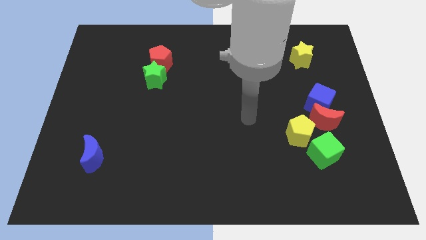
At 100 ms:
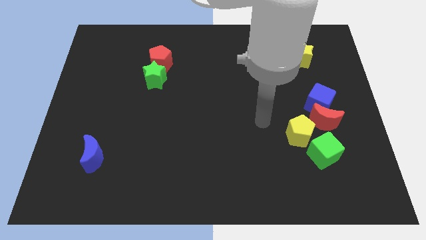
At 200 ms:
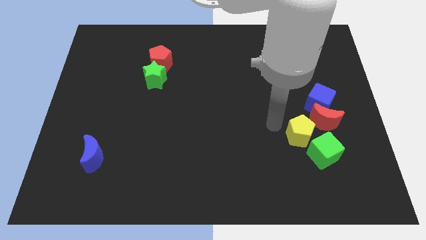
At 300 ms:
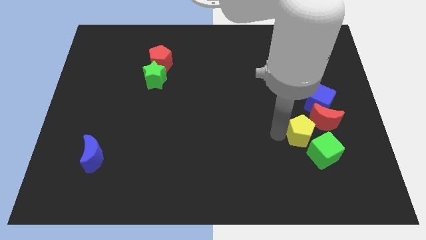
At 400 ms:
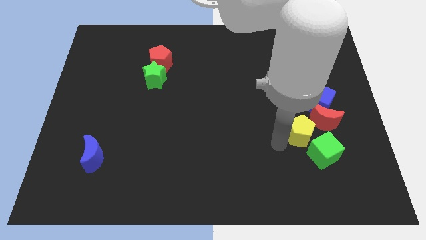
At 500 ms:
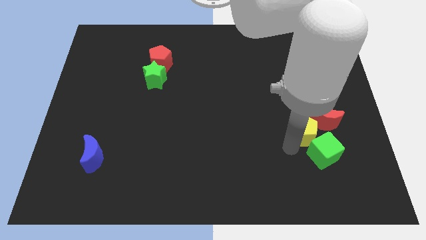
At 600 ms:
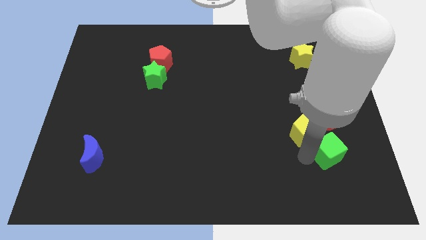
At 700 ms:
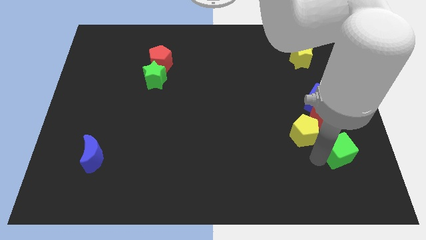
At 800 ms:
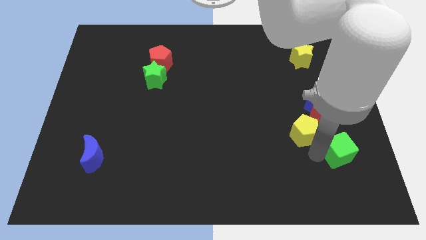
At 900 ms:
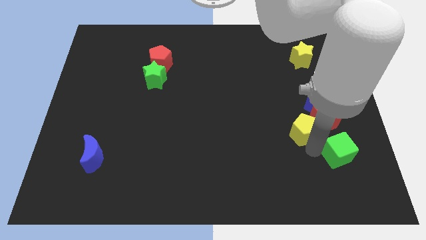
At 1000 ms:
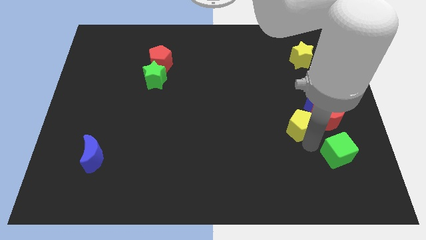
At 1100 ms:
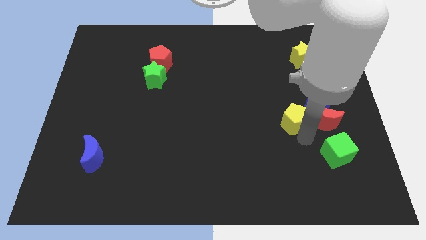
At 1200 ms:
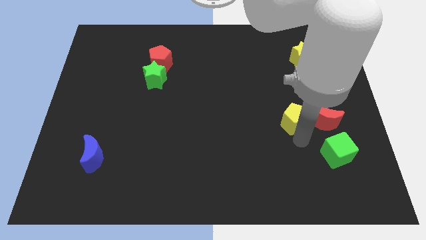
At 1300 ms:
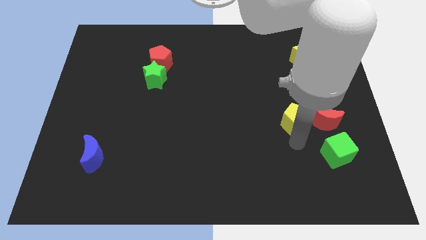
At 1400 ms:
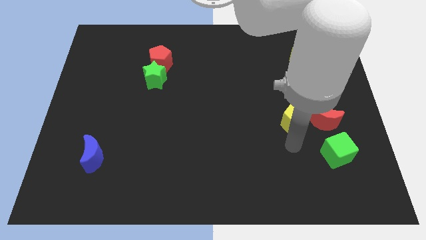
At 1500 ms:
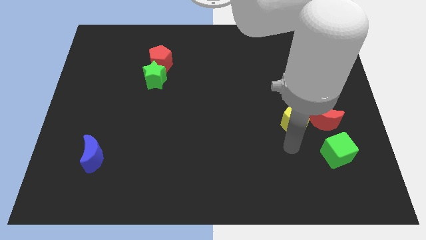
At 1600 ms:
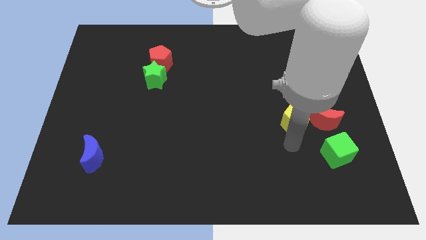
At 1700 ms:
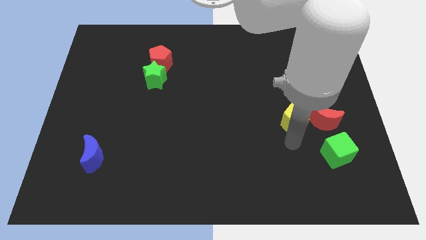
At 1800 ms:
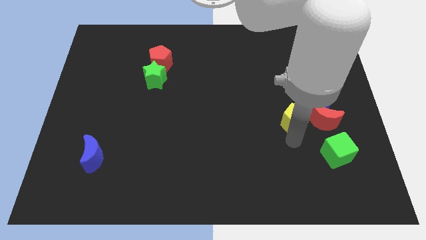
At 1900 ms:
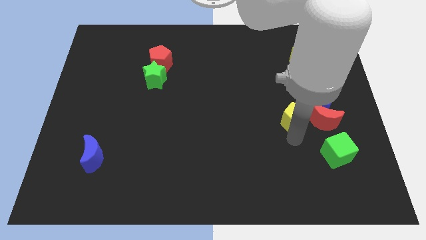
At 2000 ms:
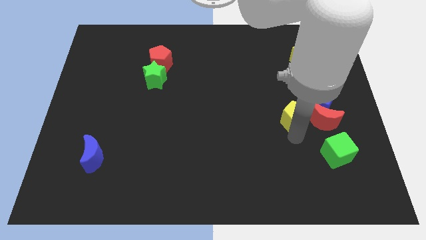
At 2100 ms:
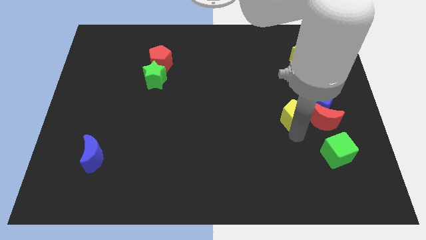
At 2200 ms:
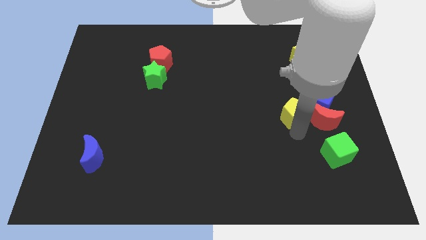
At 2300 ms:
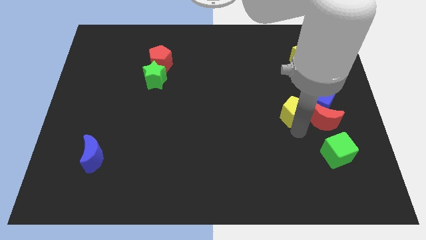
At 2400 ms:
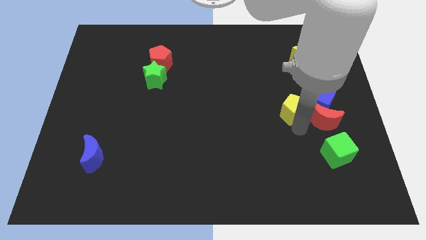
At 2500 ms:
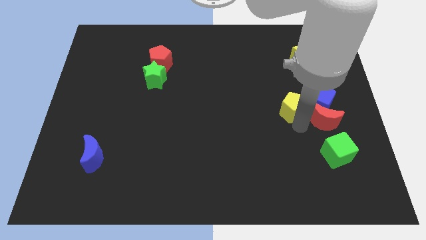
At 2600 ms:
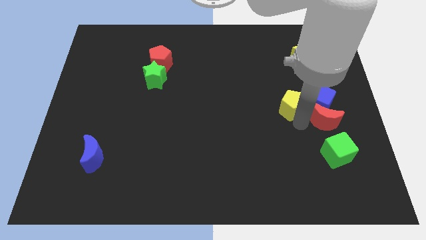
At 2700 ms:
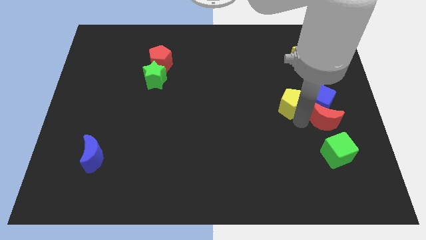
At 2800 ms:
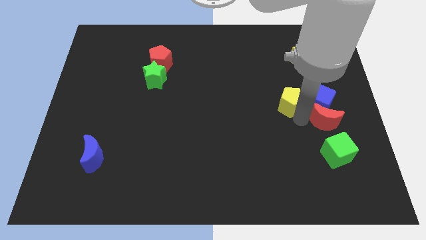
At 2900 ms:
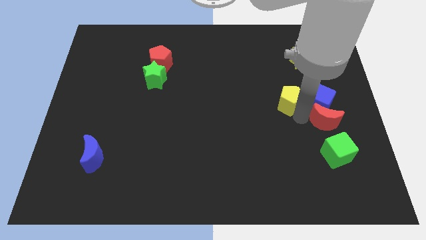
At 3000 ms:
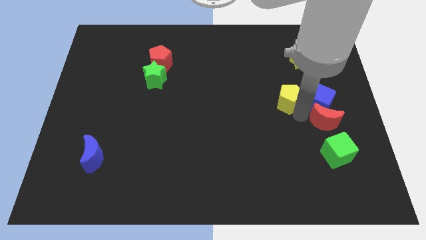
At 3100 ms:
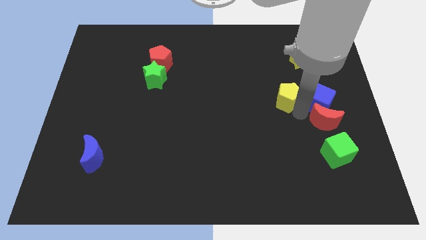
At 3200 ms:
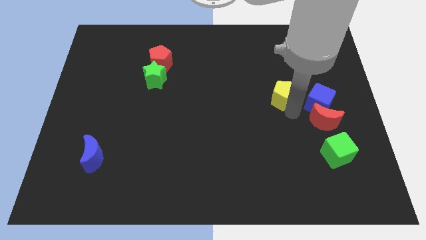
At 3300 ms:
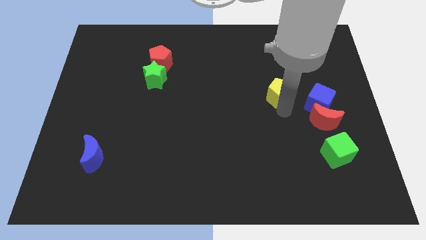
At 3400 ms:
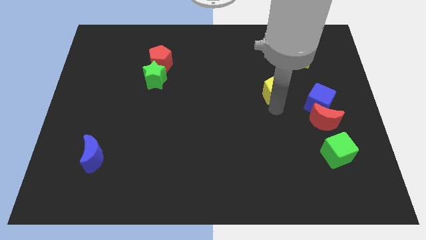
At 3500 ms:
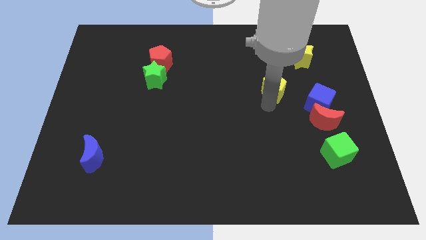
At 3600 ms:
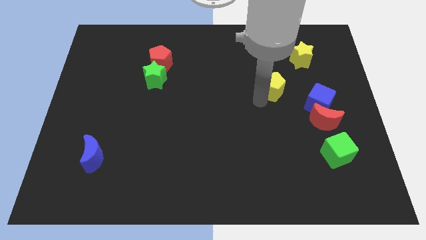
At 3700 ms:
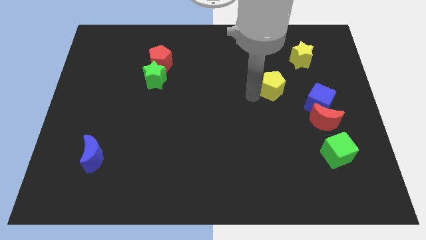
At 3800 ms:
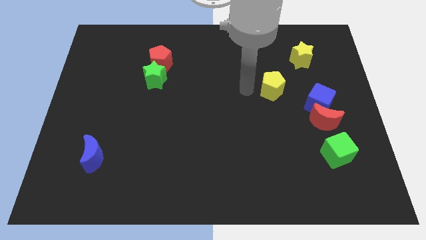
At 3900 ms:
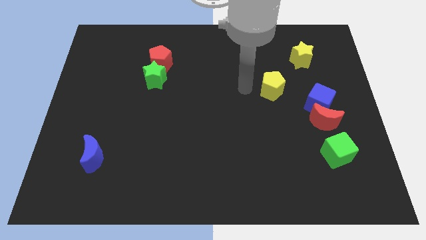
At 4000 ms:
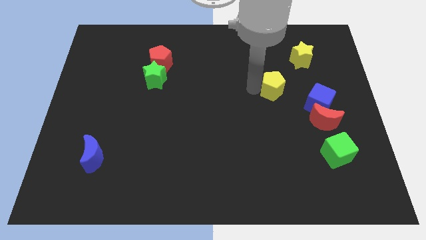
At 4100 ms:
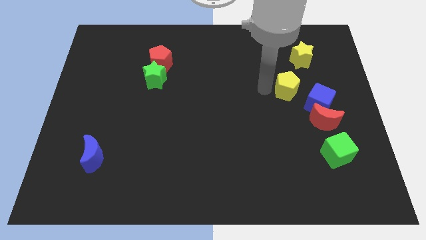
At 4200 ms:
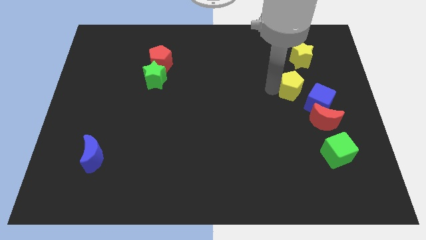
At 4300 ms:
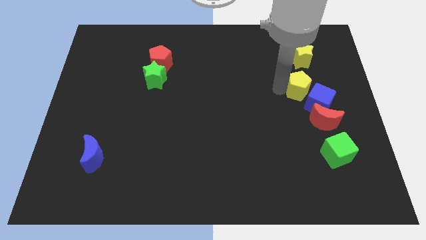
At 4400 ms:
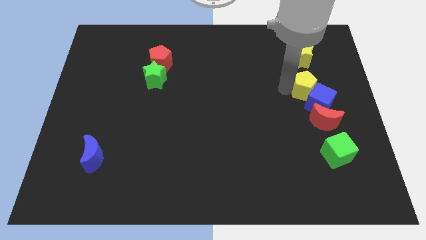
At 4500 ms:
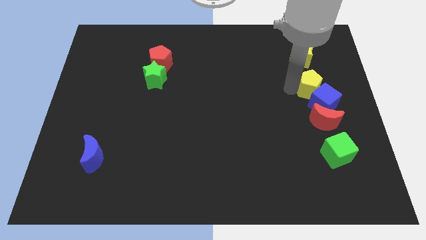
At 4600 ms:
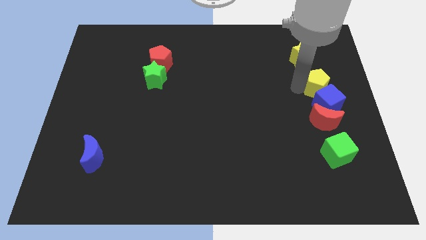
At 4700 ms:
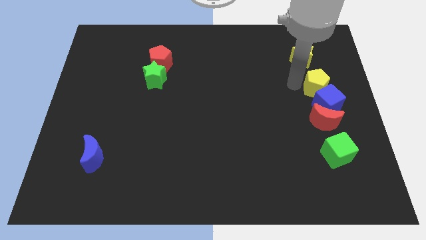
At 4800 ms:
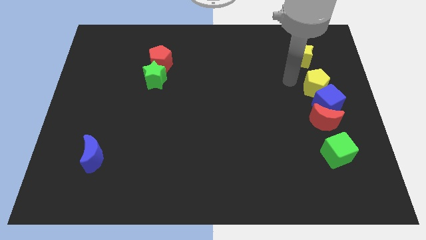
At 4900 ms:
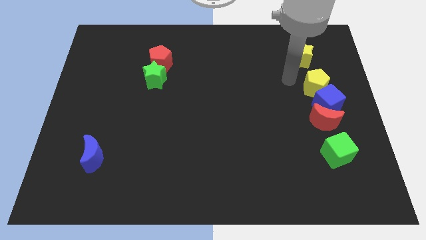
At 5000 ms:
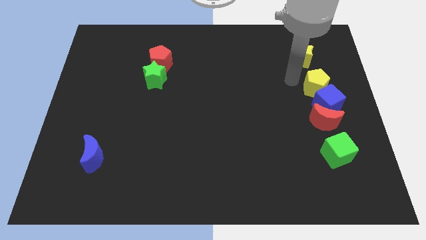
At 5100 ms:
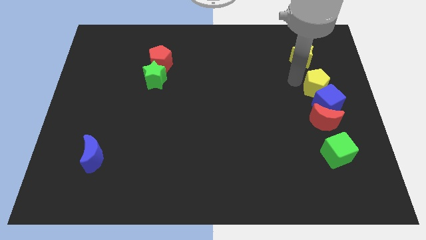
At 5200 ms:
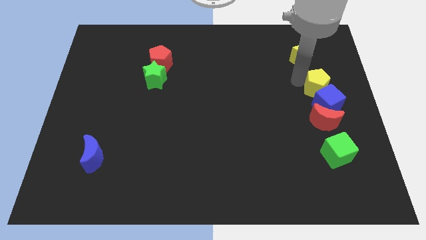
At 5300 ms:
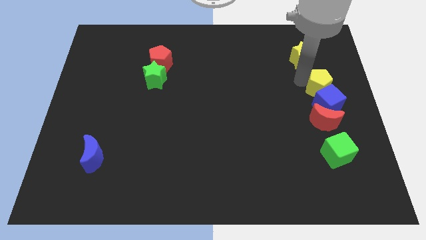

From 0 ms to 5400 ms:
move the yellow pentagon to the right side

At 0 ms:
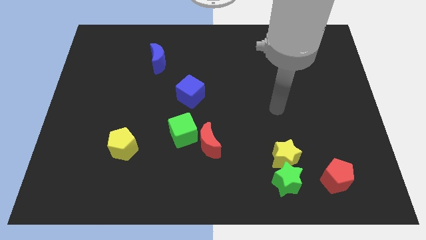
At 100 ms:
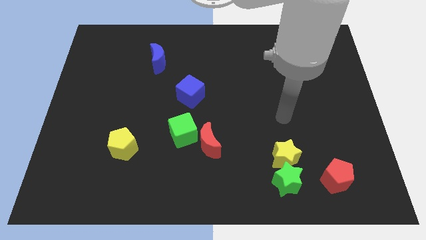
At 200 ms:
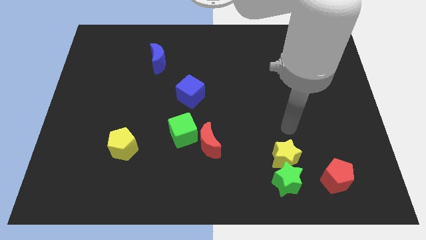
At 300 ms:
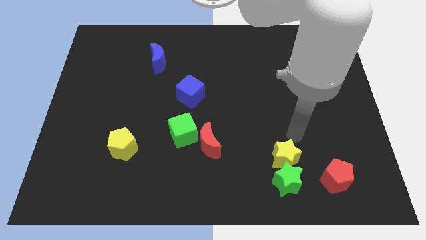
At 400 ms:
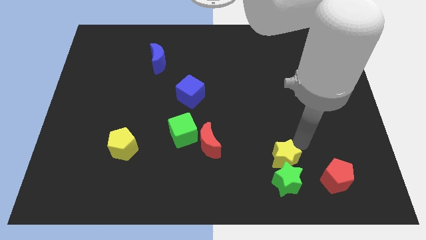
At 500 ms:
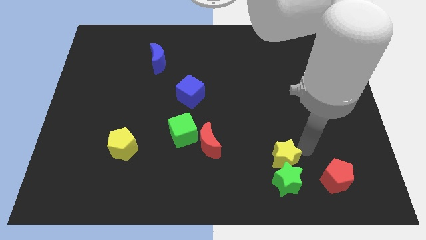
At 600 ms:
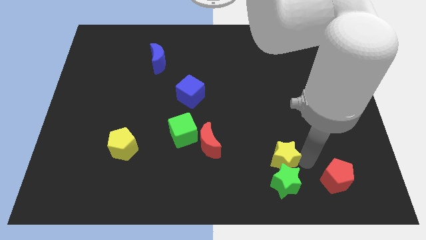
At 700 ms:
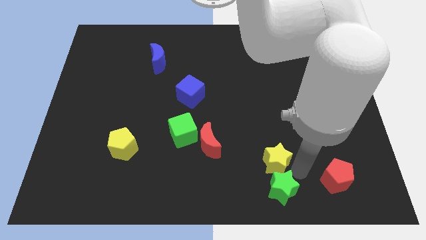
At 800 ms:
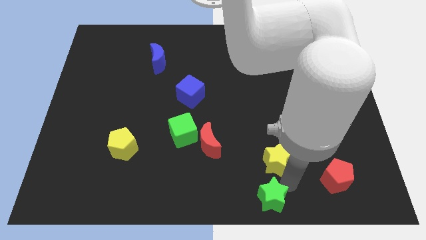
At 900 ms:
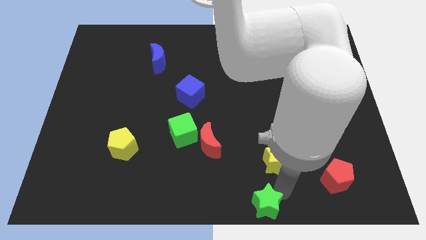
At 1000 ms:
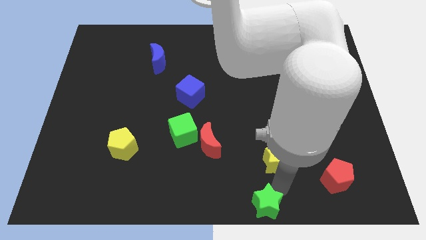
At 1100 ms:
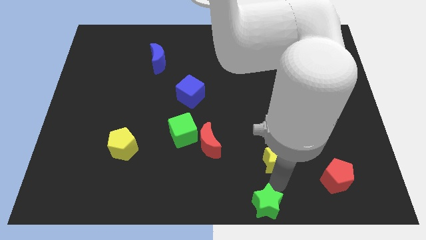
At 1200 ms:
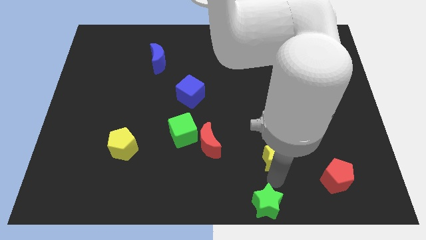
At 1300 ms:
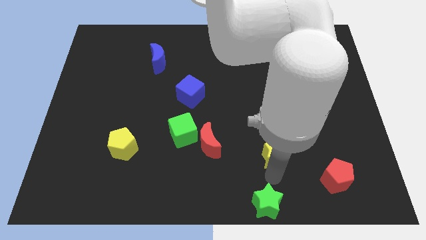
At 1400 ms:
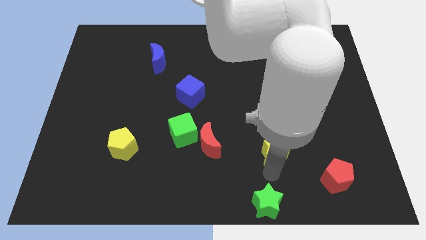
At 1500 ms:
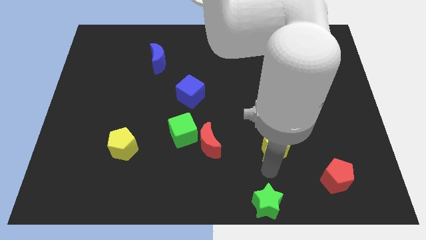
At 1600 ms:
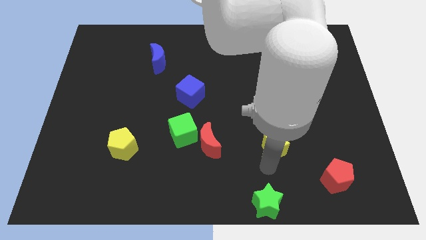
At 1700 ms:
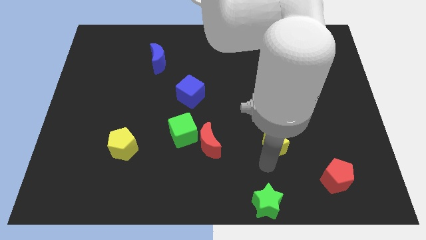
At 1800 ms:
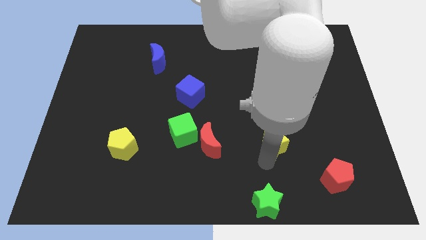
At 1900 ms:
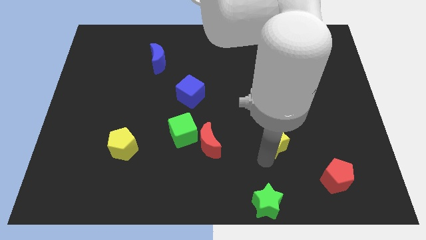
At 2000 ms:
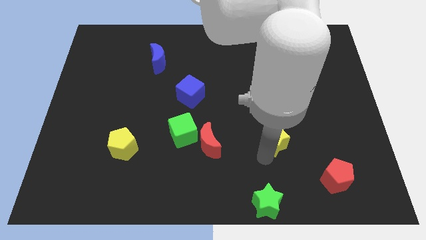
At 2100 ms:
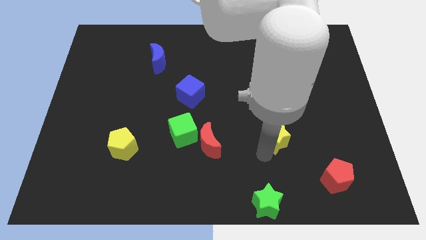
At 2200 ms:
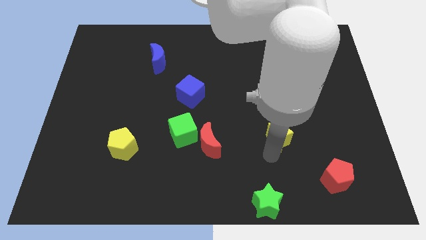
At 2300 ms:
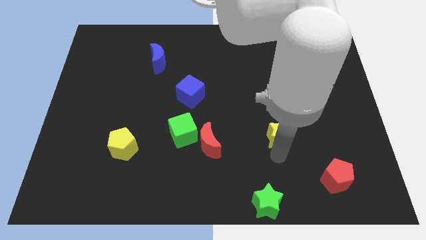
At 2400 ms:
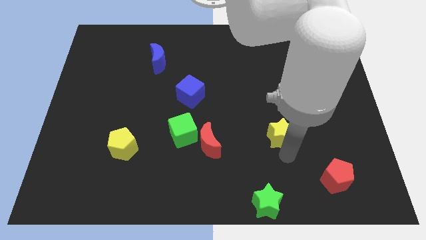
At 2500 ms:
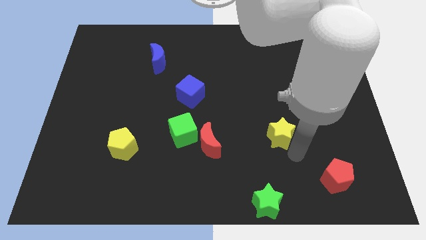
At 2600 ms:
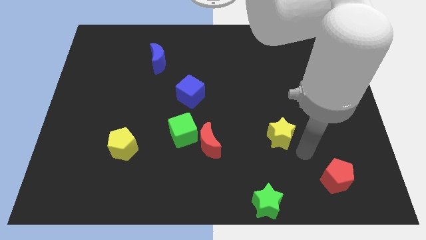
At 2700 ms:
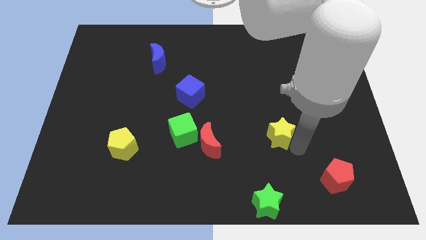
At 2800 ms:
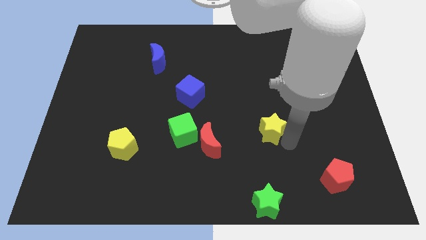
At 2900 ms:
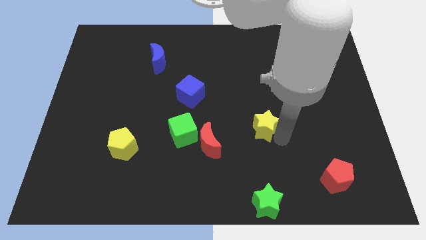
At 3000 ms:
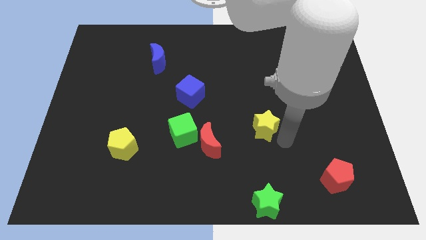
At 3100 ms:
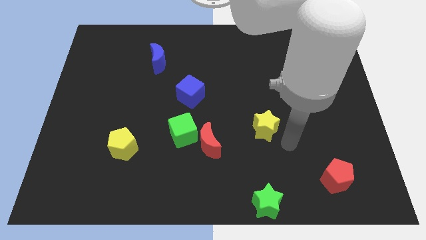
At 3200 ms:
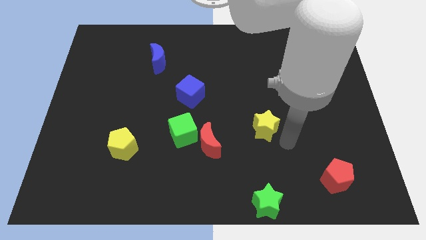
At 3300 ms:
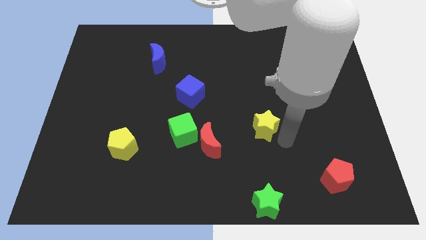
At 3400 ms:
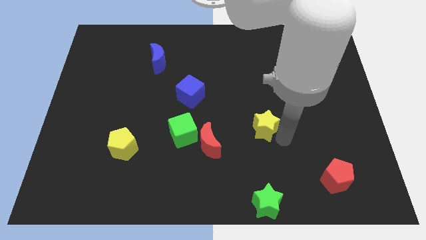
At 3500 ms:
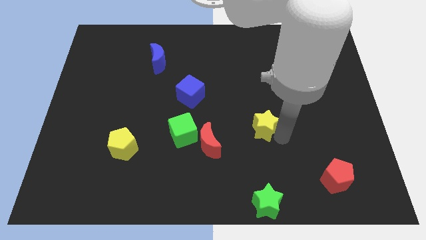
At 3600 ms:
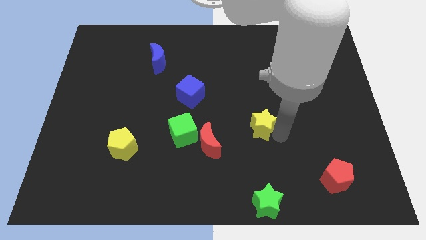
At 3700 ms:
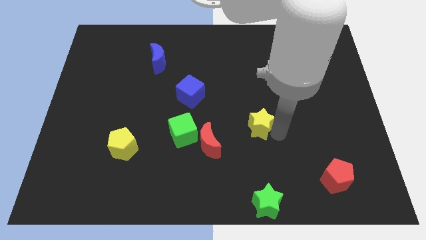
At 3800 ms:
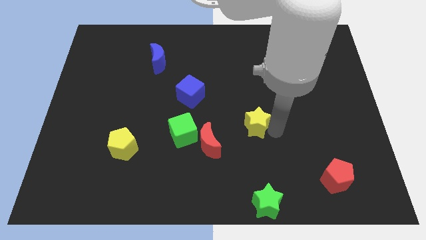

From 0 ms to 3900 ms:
move the yellow star to the middle of the board
